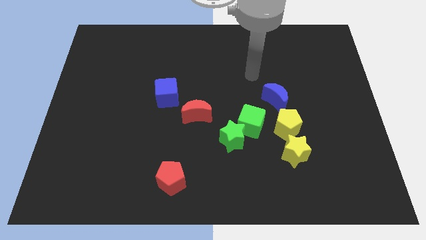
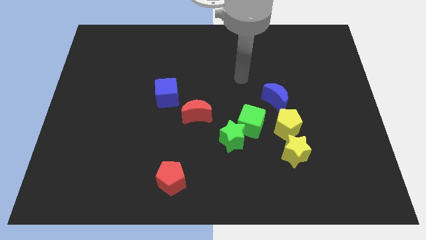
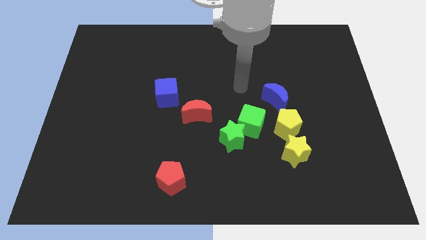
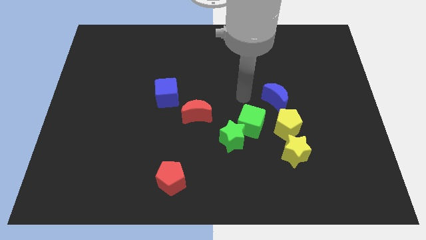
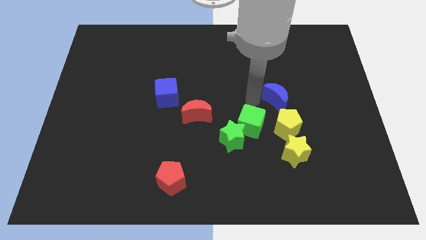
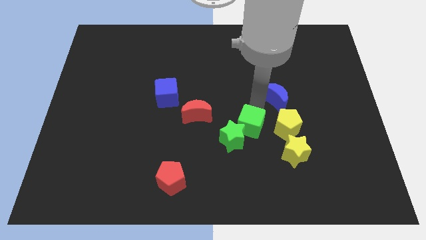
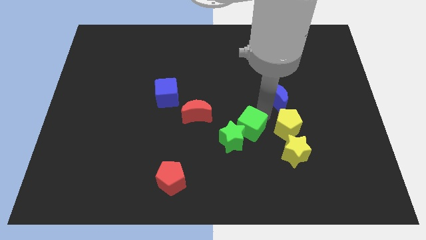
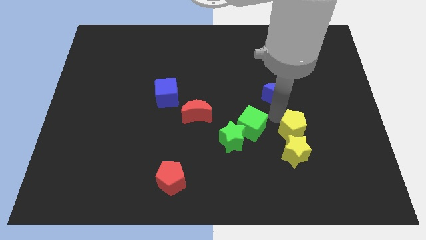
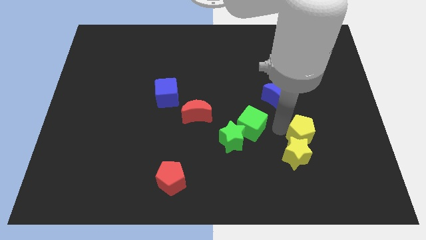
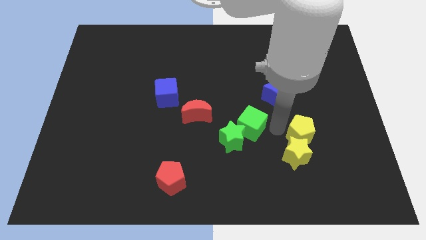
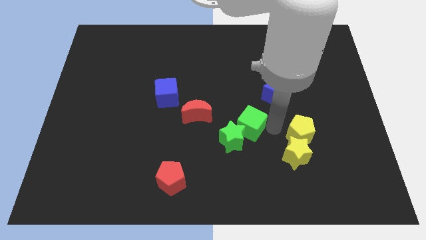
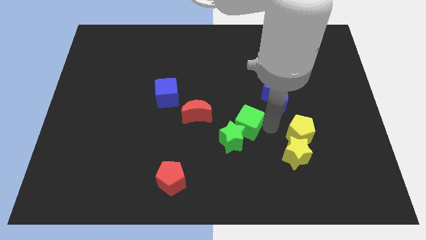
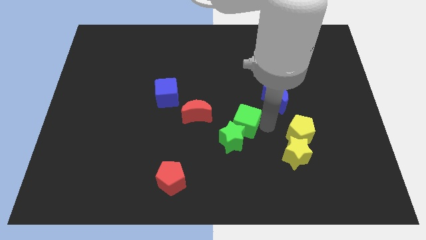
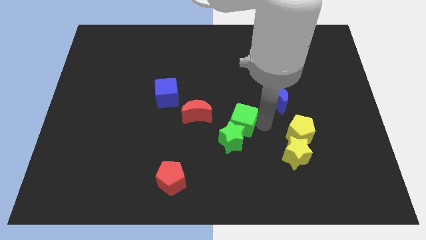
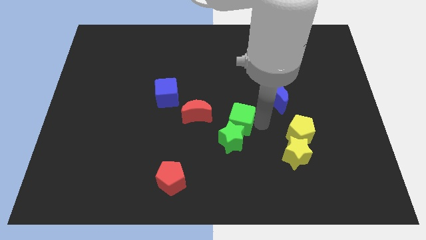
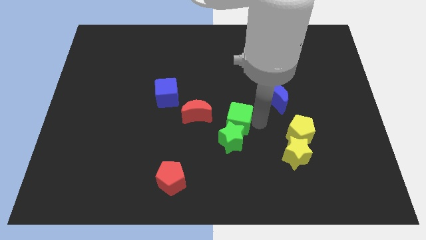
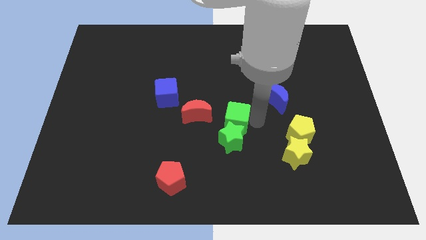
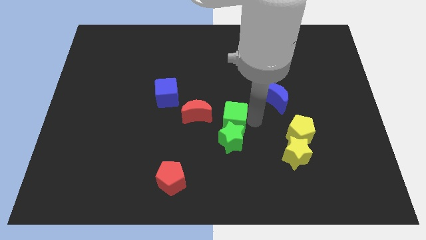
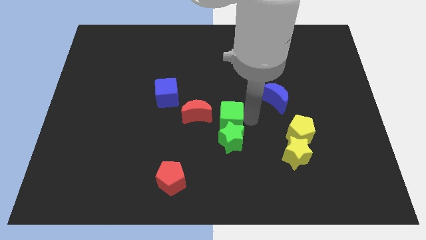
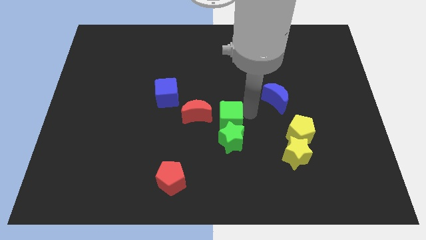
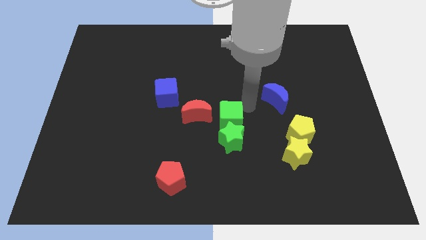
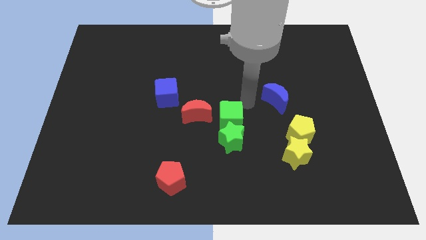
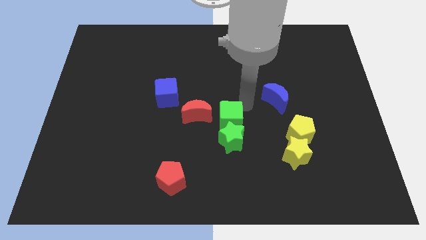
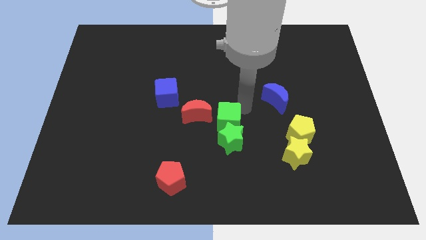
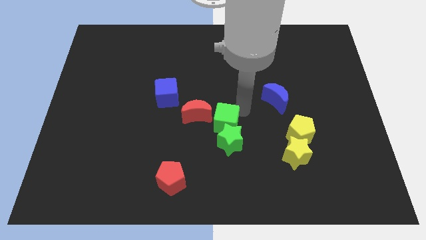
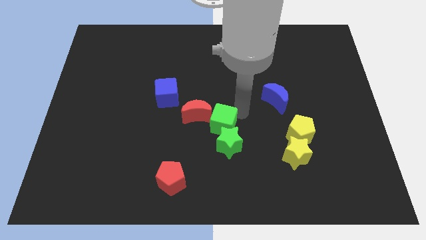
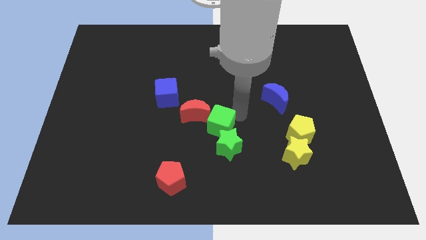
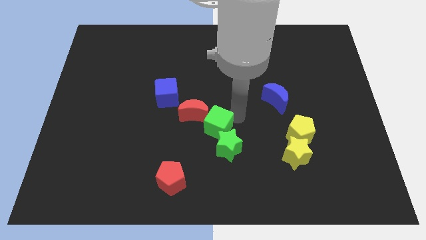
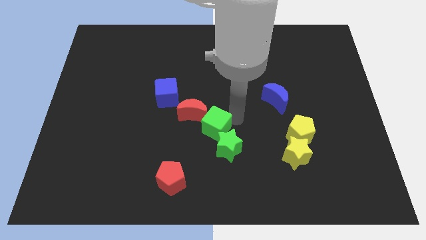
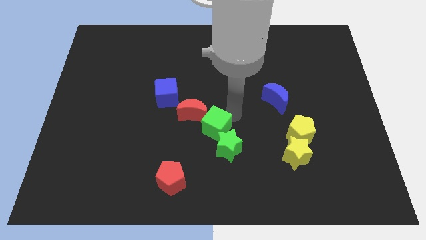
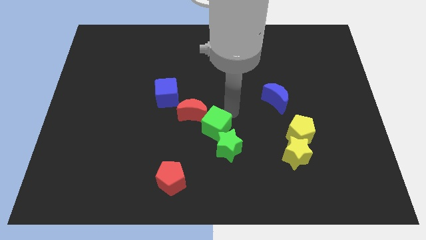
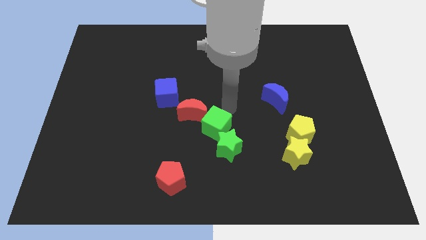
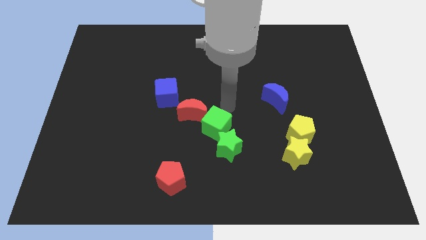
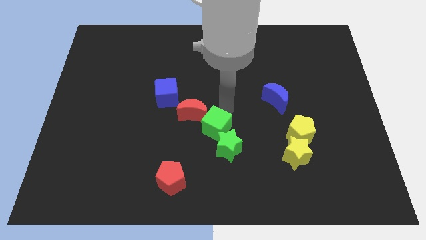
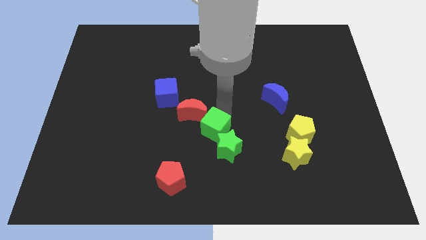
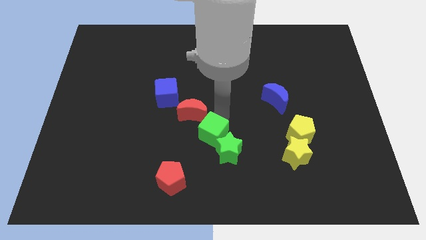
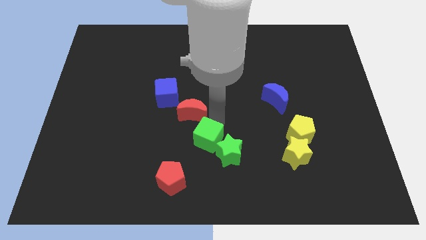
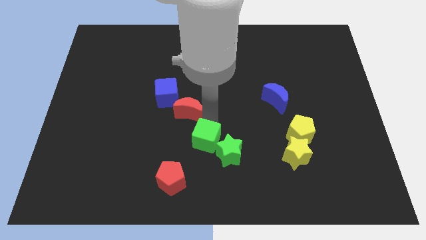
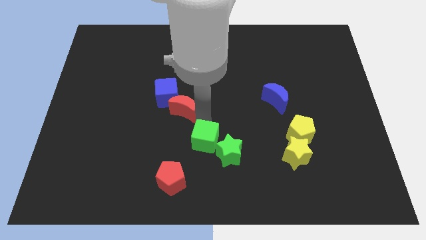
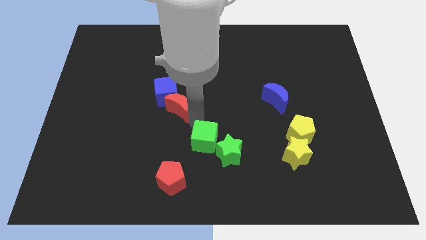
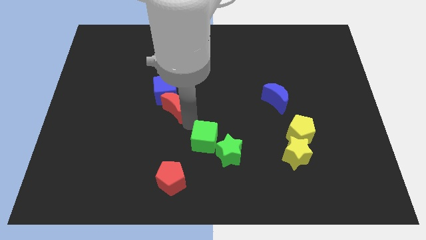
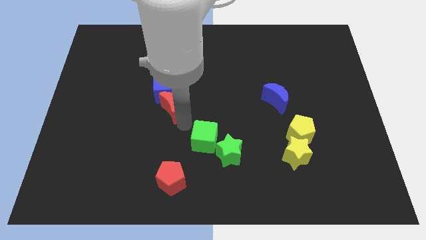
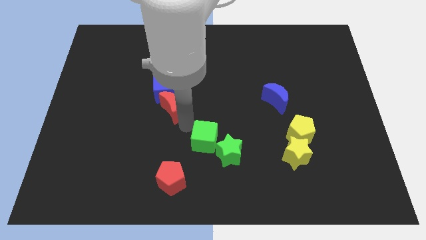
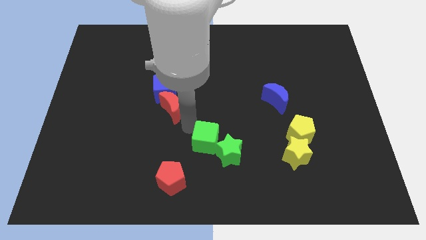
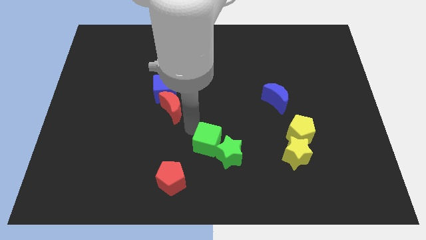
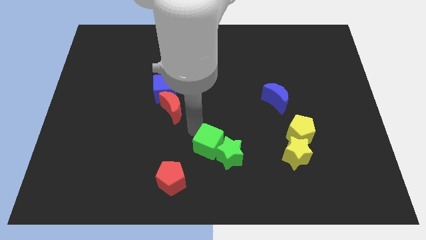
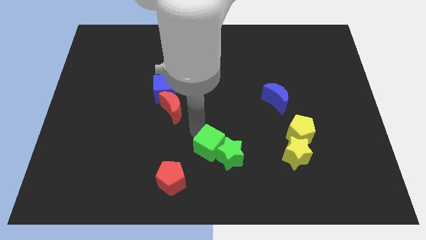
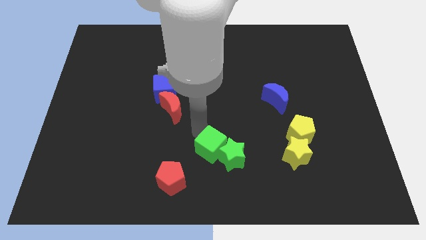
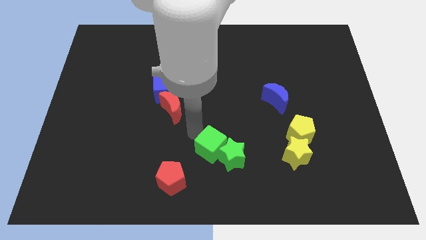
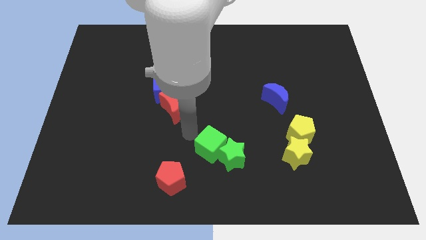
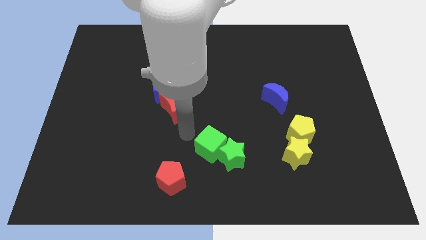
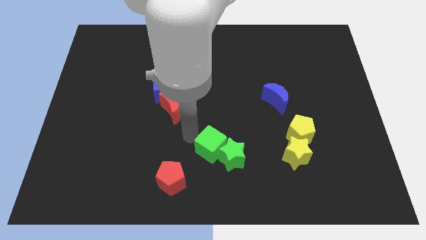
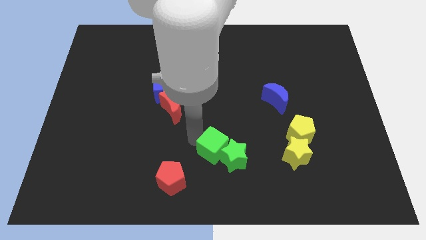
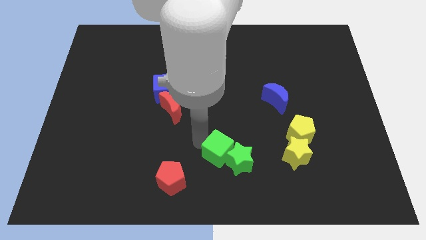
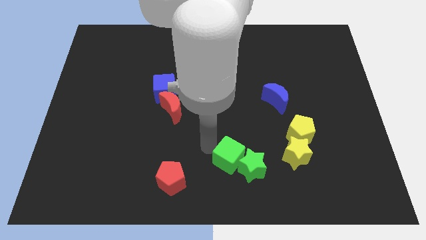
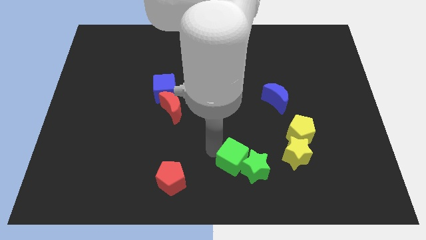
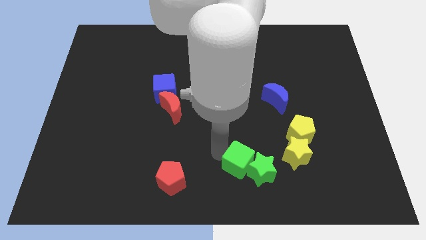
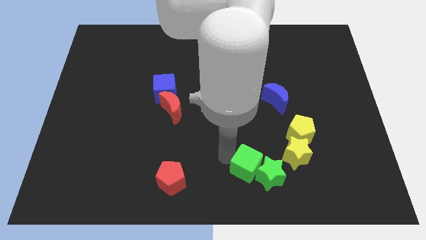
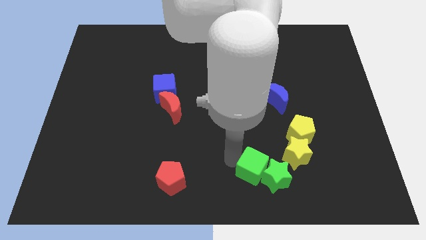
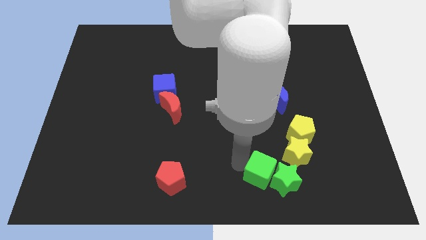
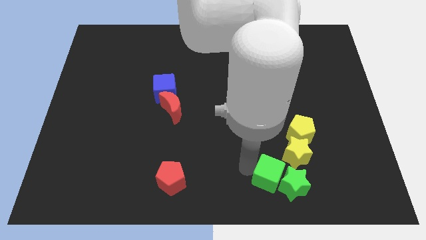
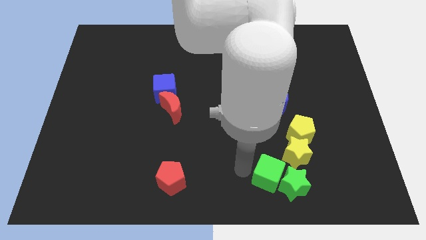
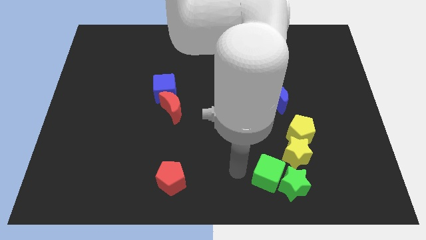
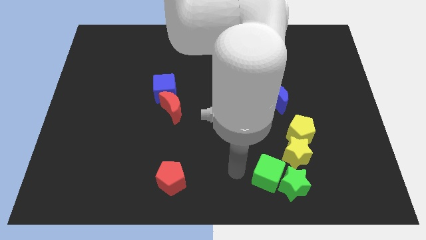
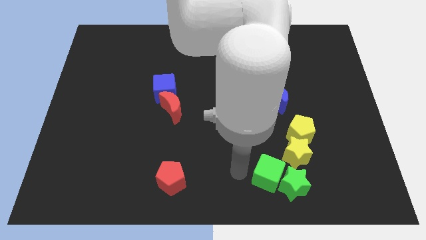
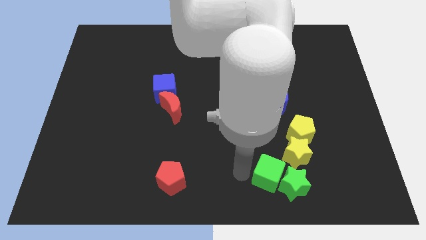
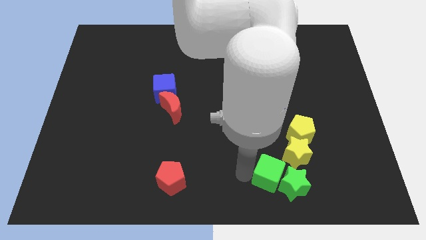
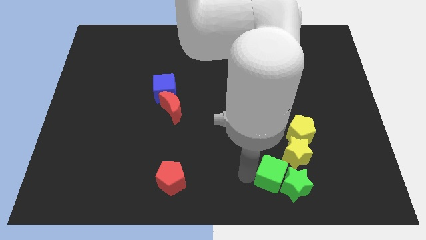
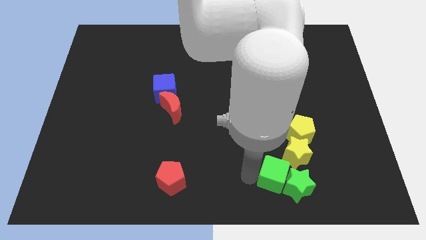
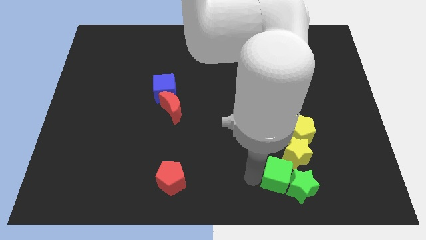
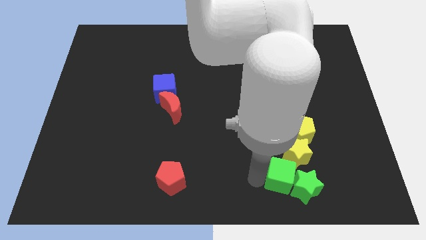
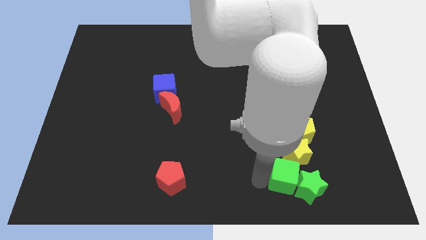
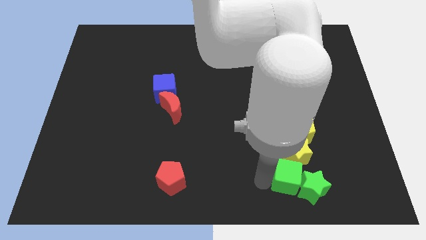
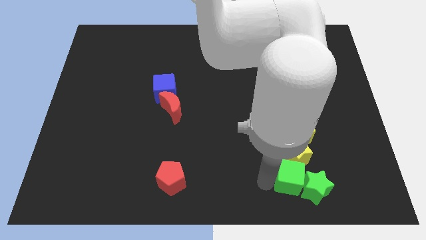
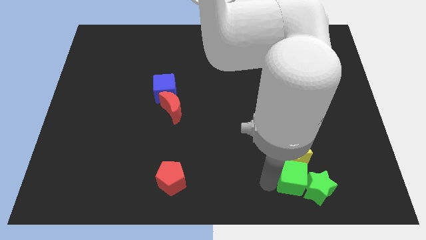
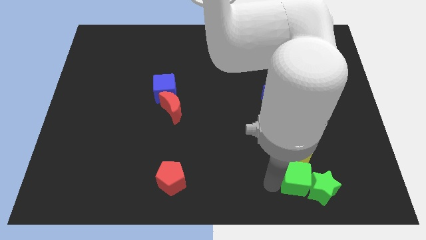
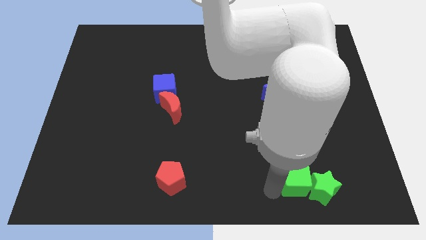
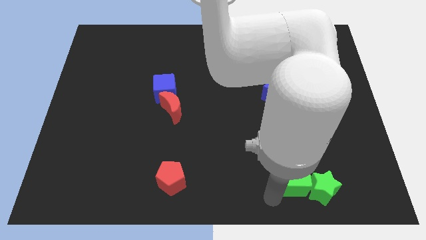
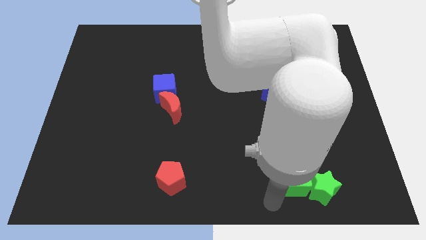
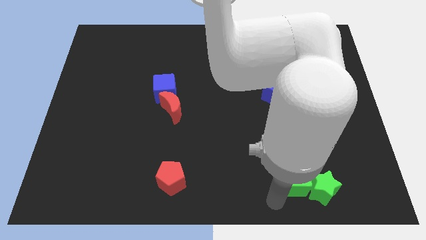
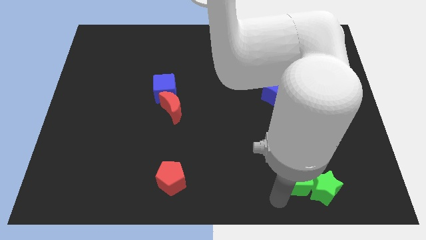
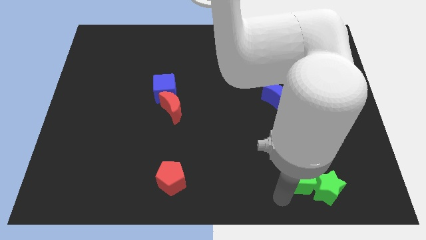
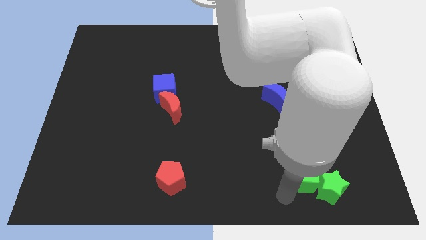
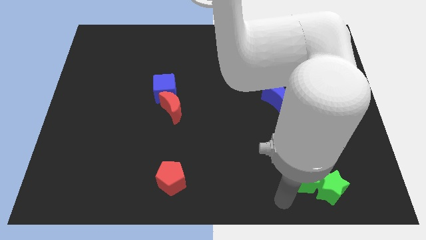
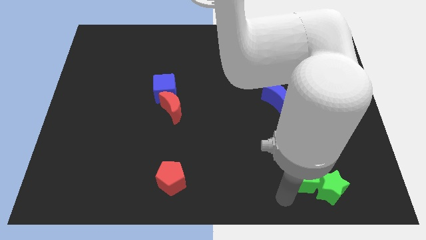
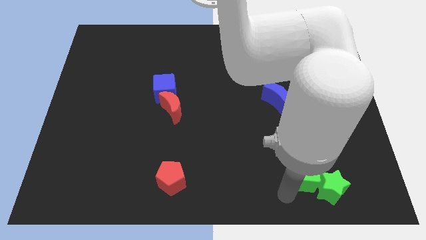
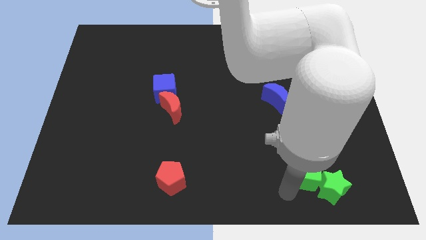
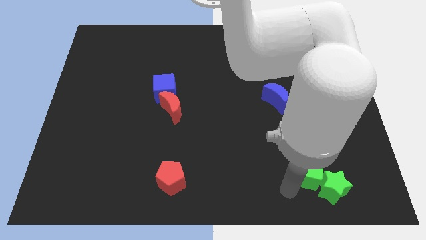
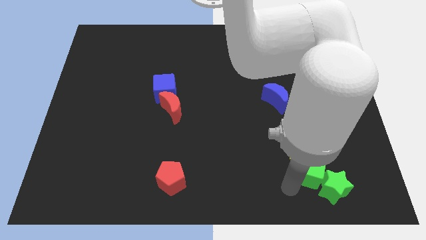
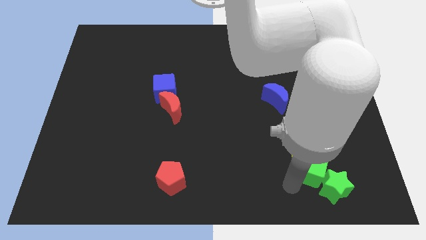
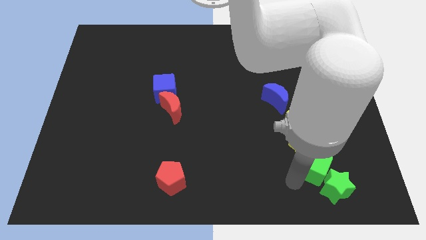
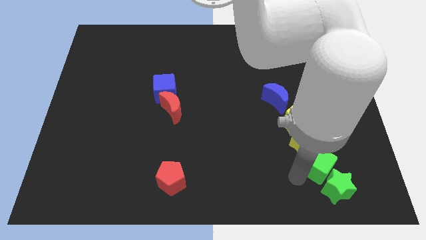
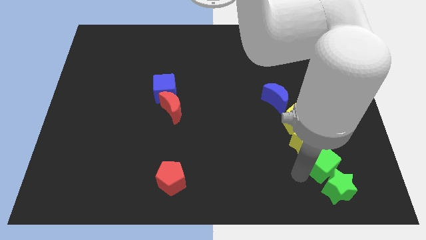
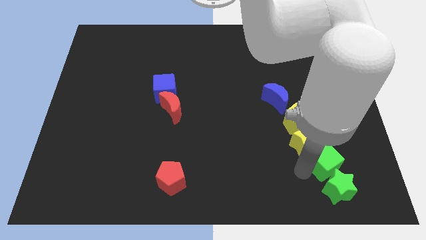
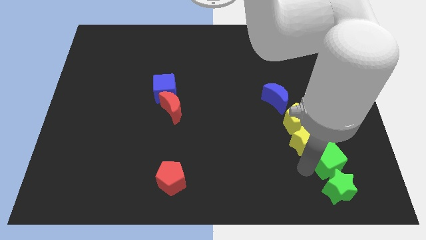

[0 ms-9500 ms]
push the green cube to the right side of the yellow star
